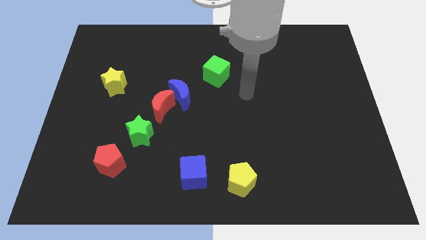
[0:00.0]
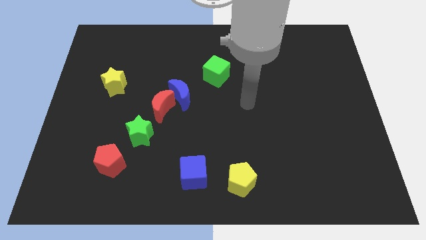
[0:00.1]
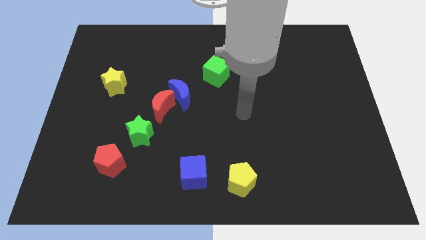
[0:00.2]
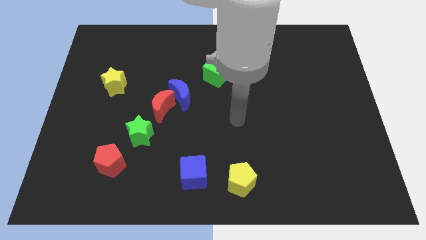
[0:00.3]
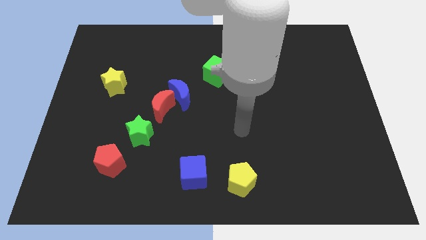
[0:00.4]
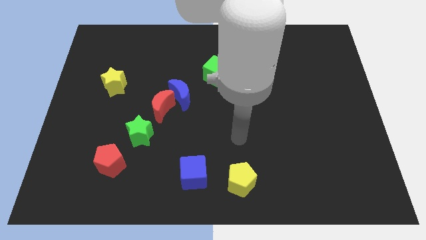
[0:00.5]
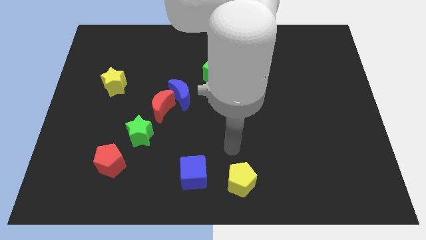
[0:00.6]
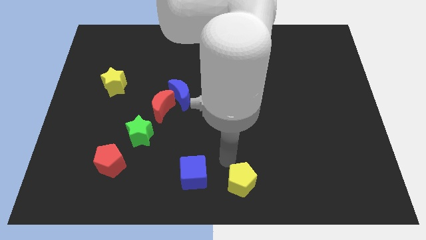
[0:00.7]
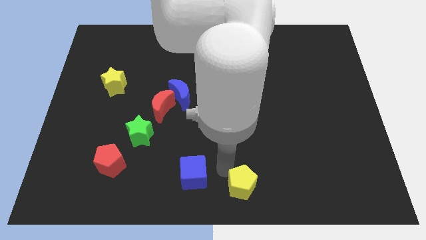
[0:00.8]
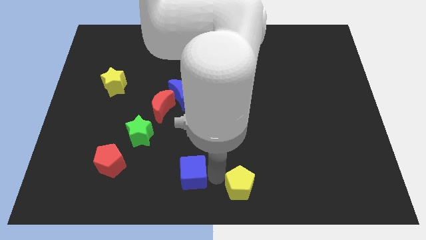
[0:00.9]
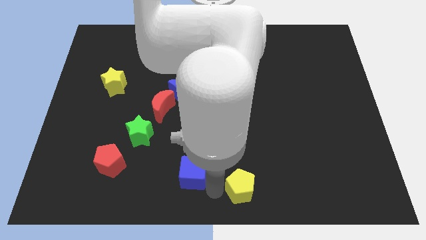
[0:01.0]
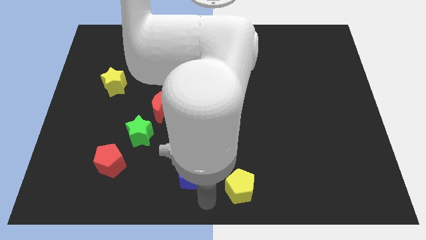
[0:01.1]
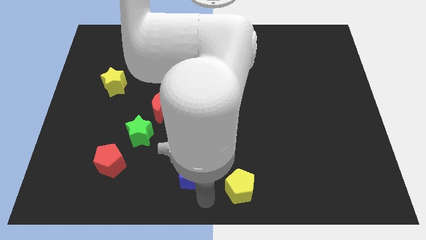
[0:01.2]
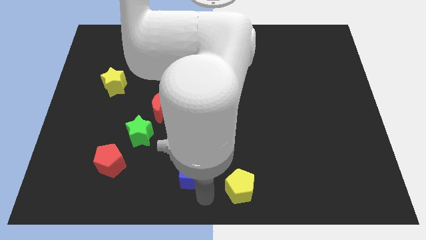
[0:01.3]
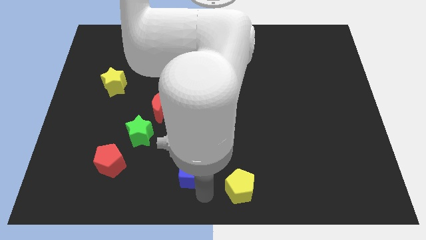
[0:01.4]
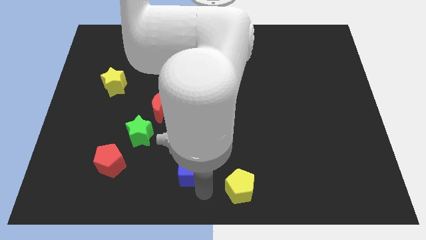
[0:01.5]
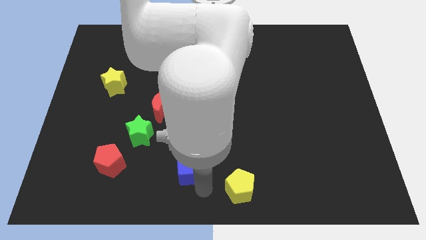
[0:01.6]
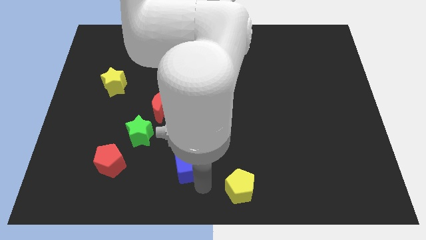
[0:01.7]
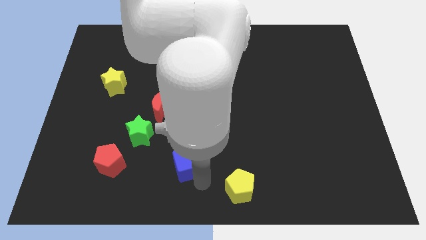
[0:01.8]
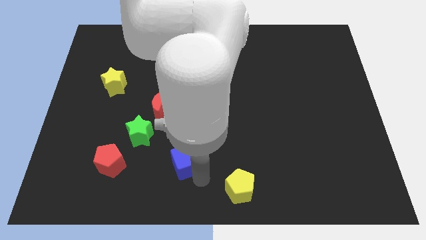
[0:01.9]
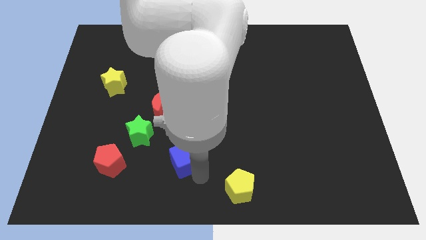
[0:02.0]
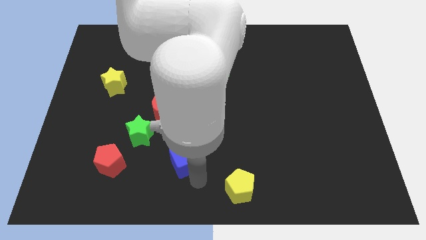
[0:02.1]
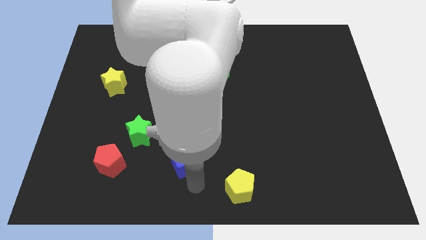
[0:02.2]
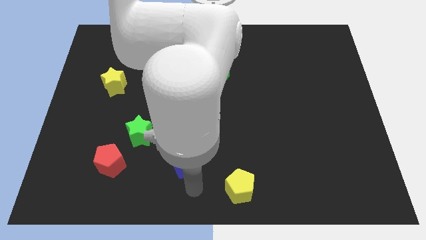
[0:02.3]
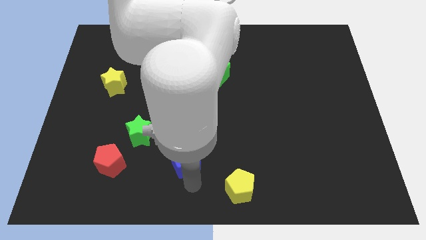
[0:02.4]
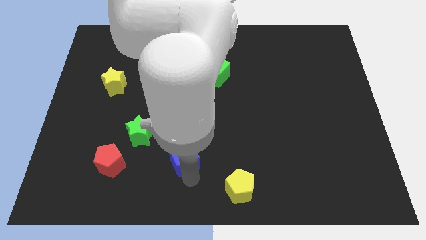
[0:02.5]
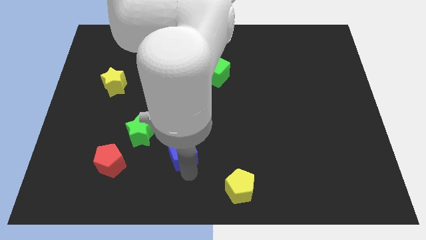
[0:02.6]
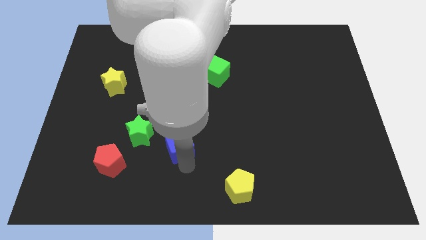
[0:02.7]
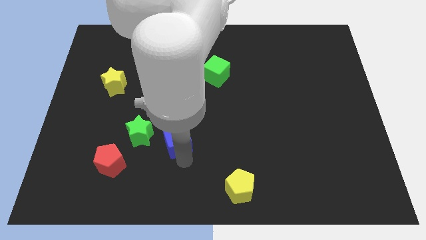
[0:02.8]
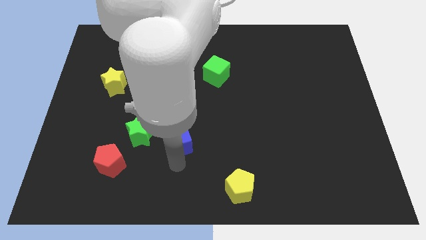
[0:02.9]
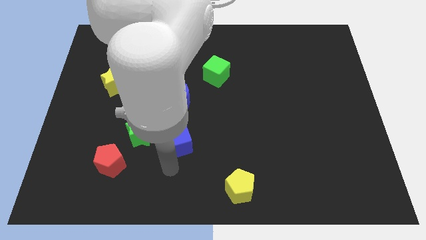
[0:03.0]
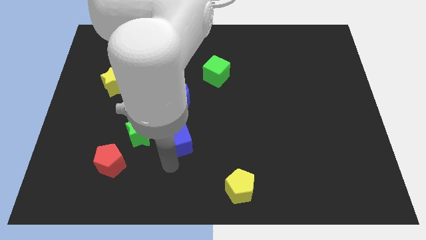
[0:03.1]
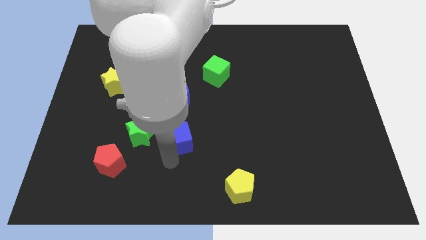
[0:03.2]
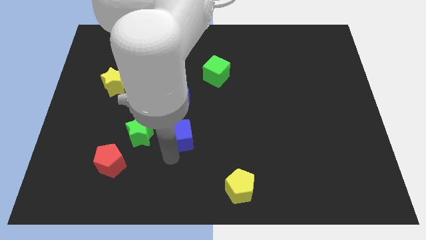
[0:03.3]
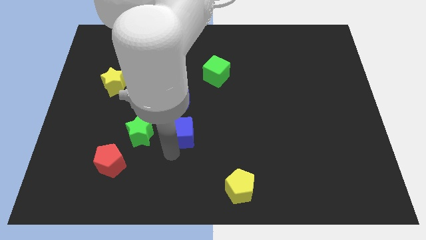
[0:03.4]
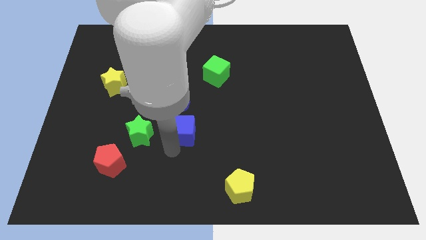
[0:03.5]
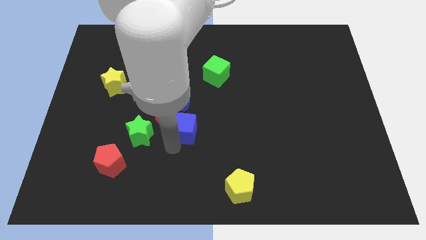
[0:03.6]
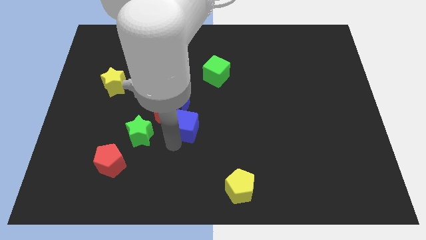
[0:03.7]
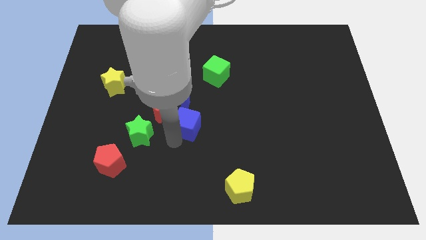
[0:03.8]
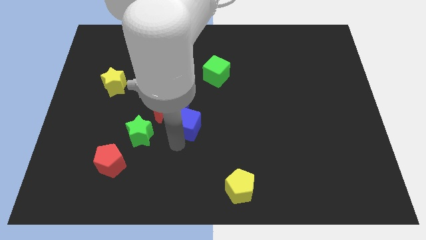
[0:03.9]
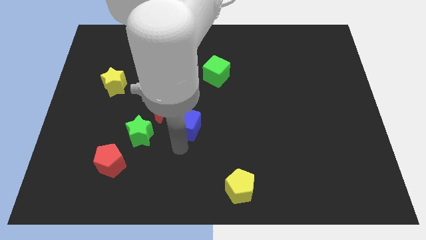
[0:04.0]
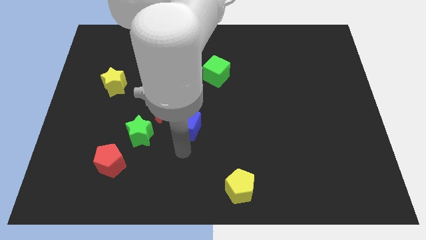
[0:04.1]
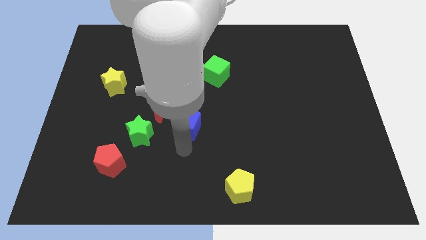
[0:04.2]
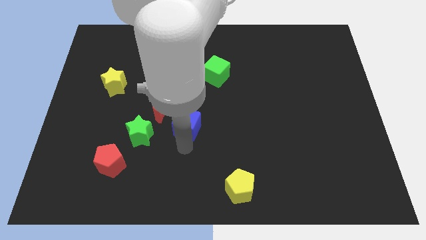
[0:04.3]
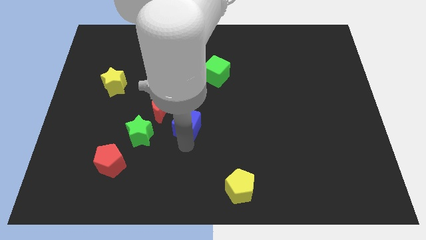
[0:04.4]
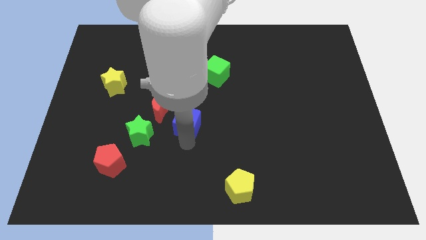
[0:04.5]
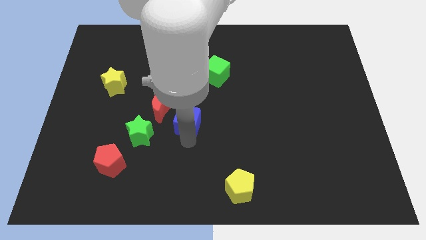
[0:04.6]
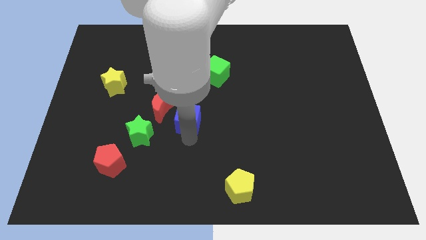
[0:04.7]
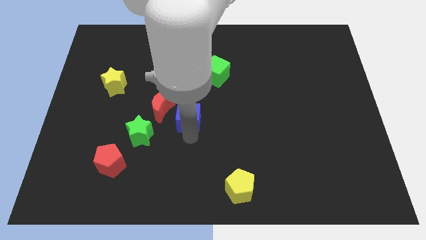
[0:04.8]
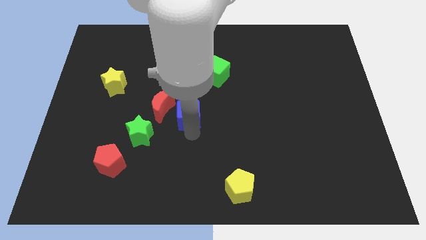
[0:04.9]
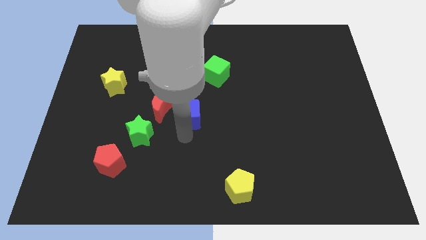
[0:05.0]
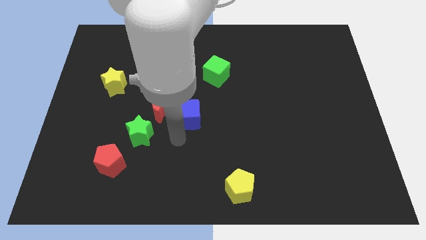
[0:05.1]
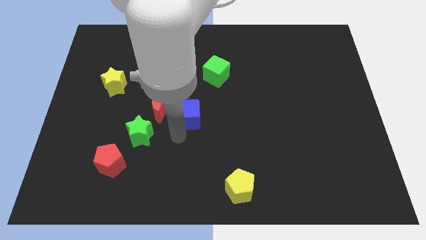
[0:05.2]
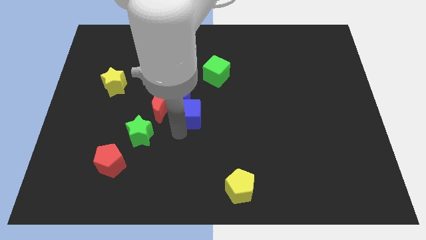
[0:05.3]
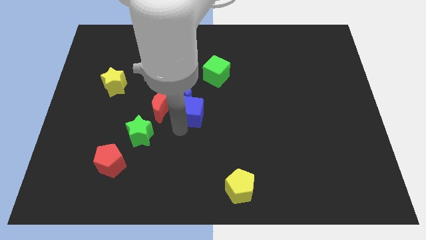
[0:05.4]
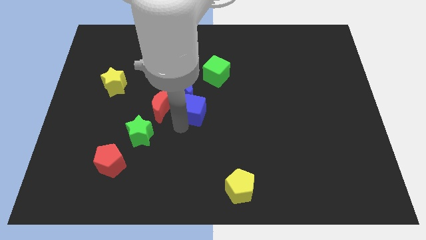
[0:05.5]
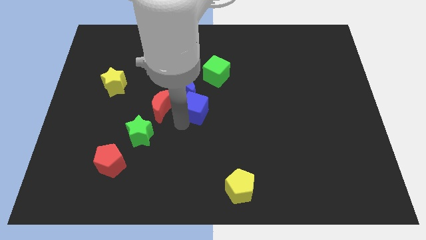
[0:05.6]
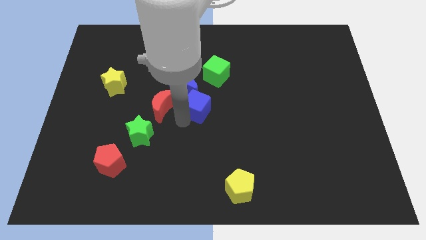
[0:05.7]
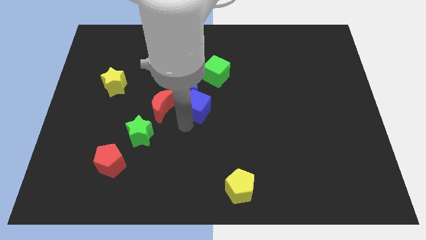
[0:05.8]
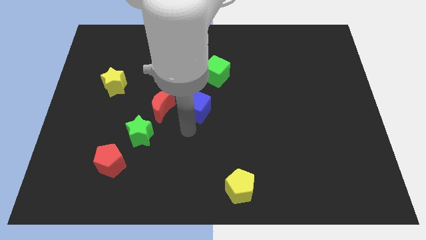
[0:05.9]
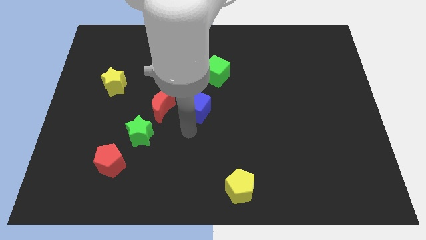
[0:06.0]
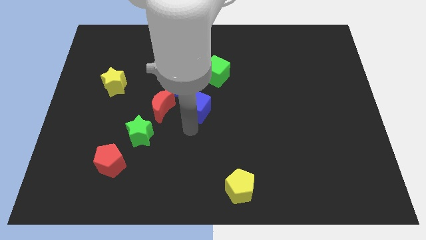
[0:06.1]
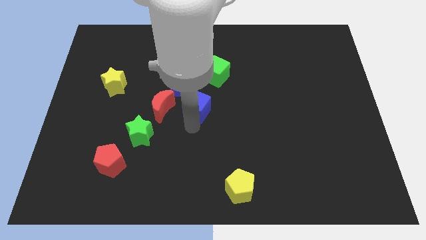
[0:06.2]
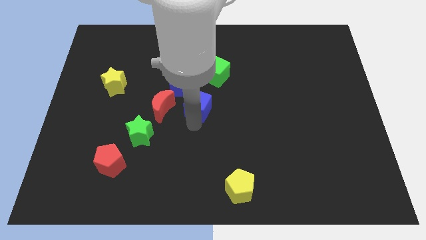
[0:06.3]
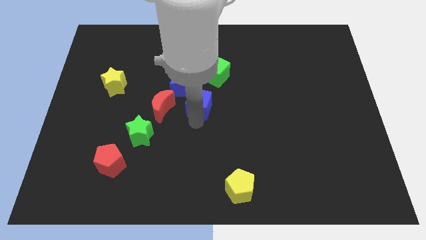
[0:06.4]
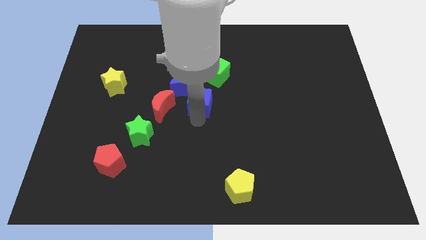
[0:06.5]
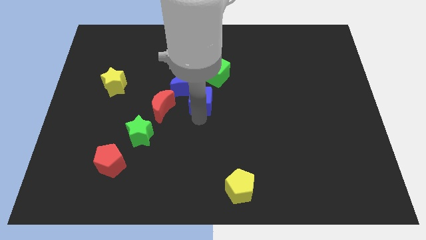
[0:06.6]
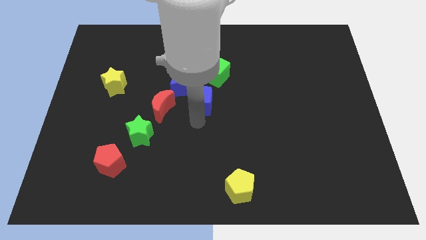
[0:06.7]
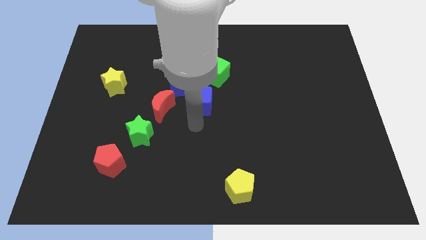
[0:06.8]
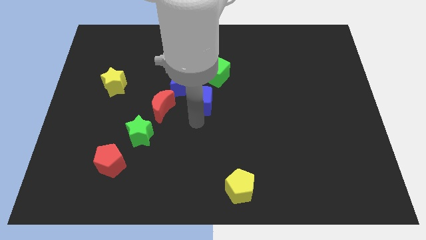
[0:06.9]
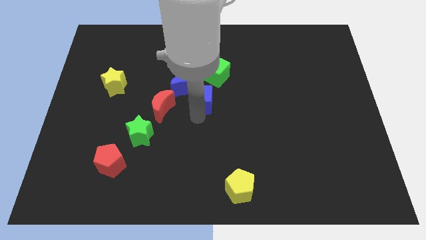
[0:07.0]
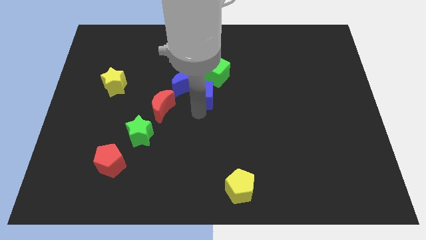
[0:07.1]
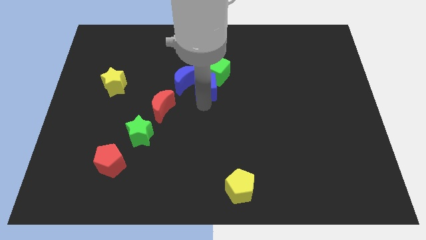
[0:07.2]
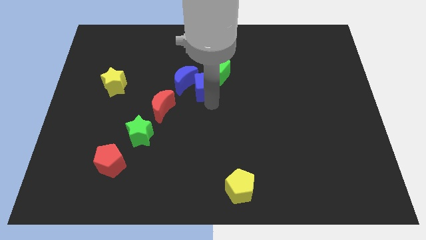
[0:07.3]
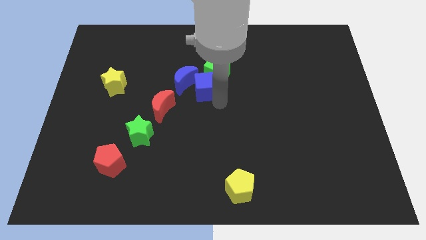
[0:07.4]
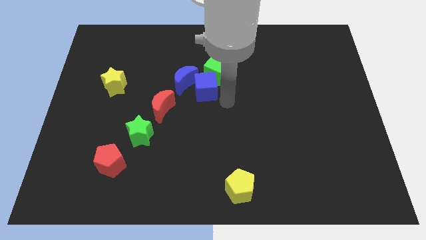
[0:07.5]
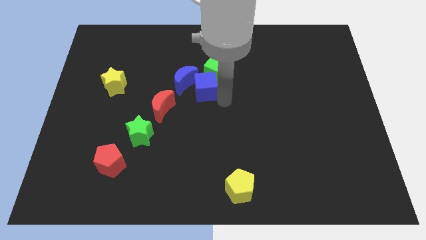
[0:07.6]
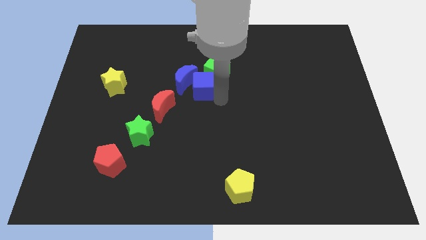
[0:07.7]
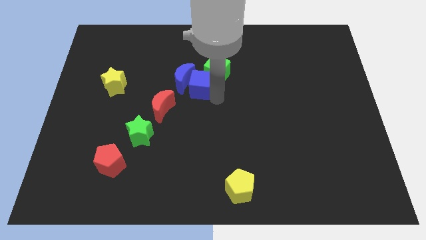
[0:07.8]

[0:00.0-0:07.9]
slide the blue cube just left of the green cube
